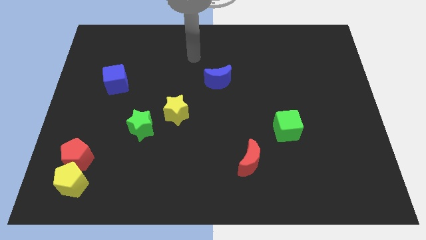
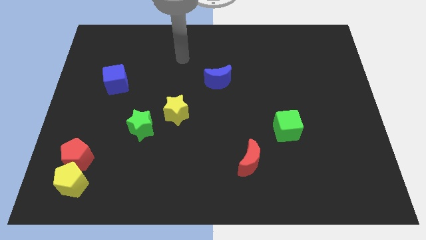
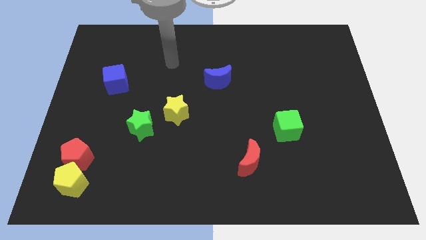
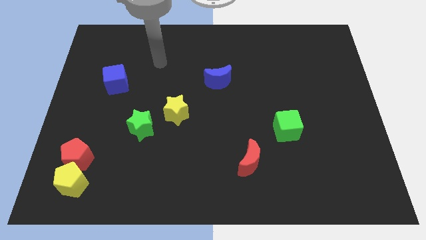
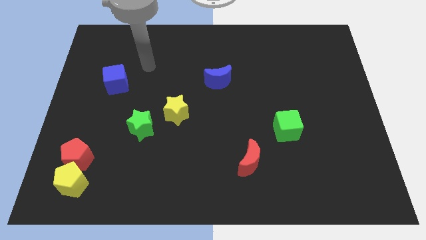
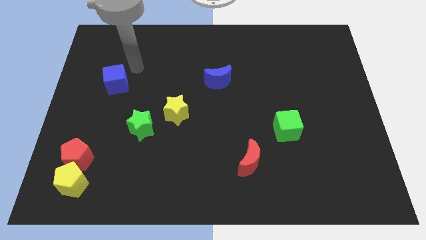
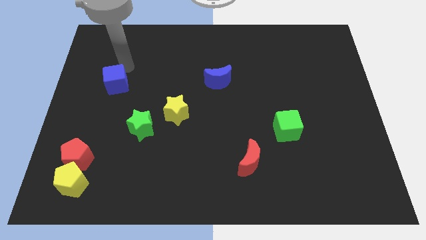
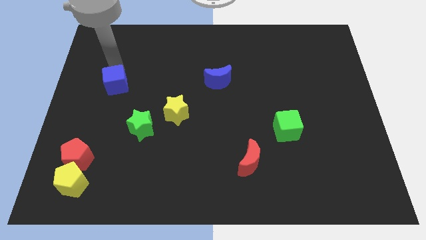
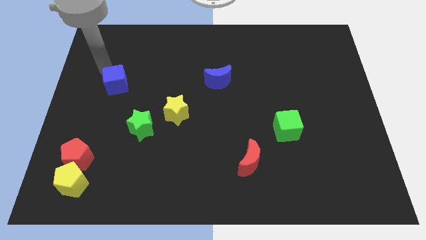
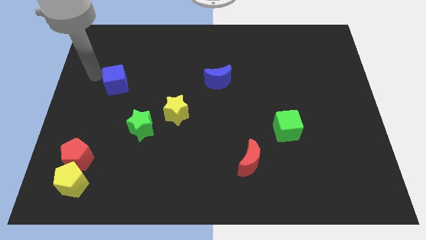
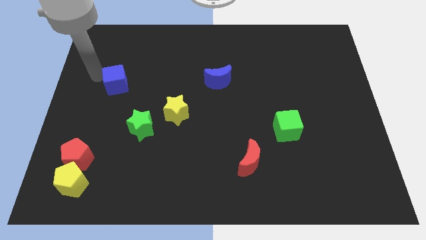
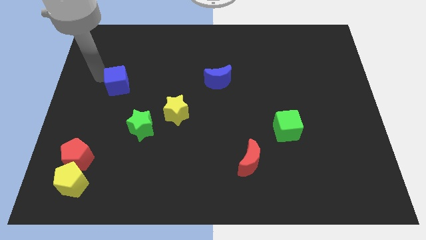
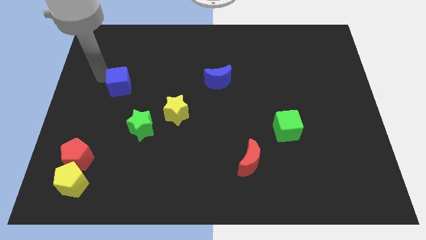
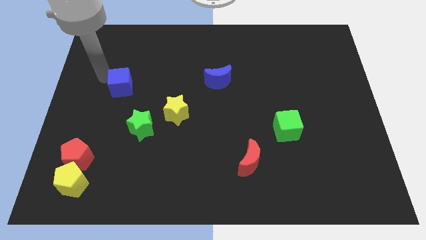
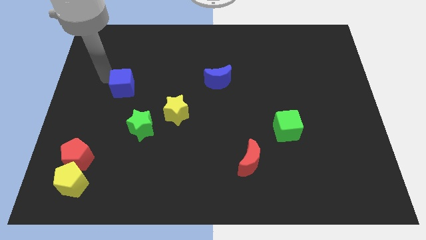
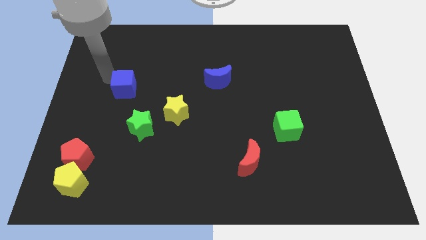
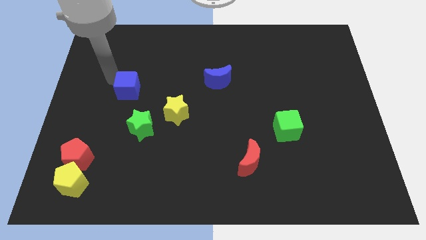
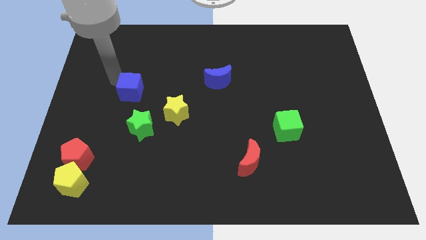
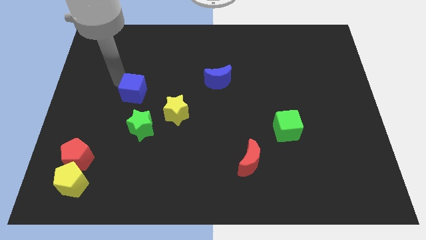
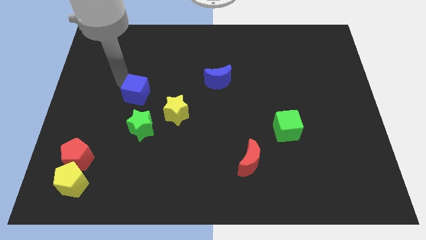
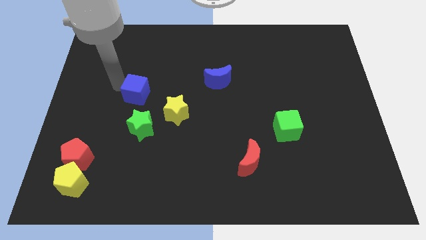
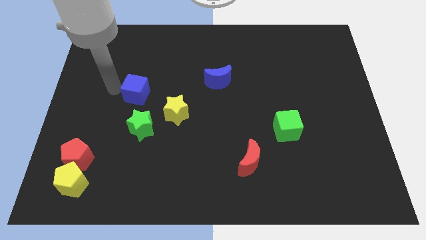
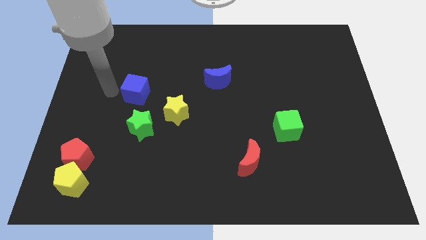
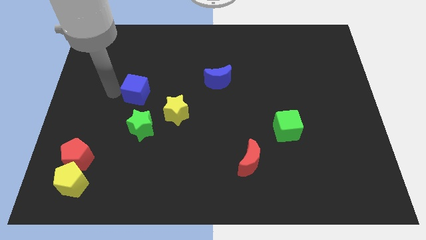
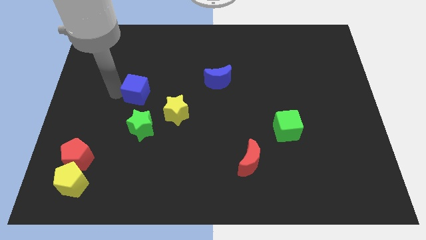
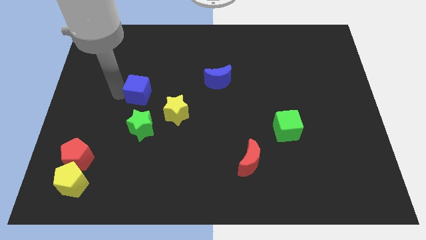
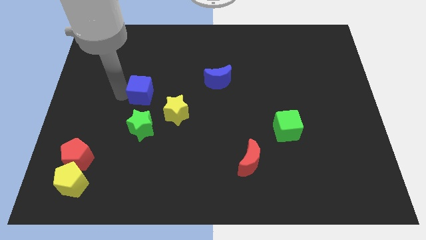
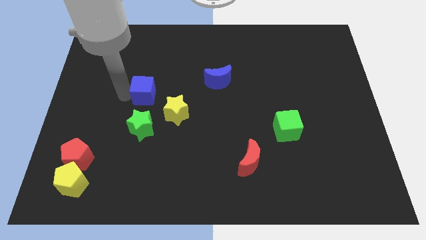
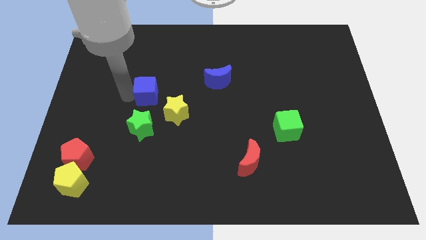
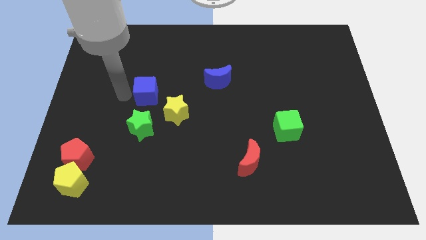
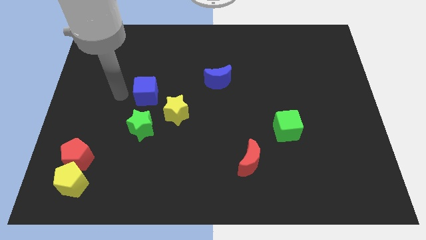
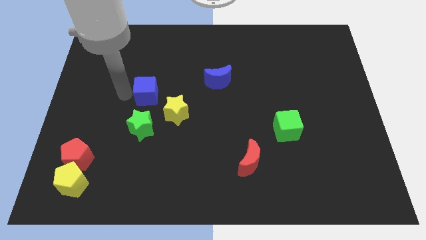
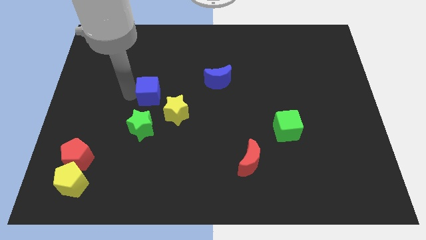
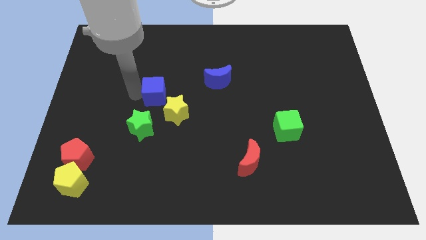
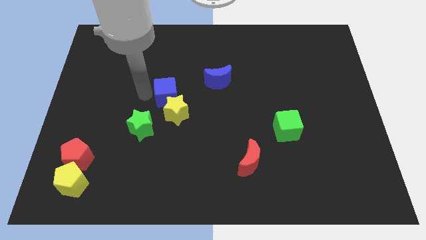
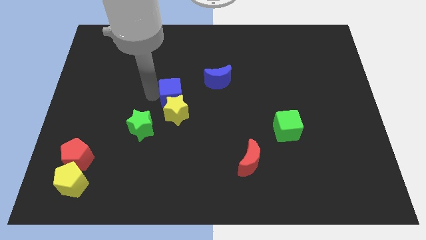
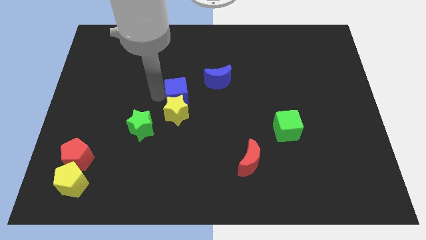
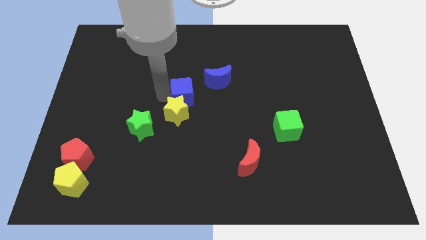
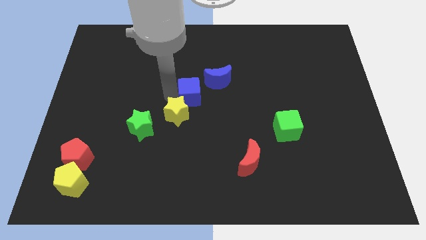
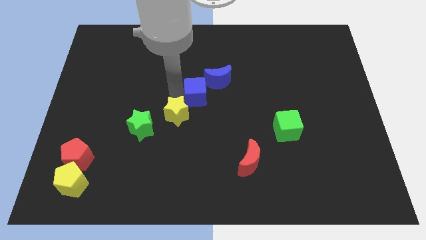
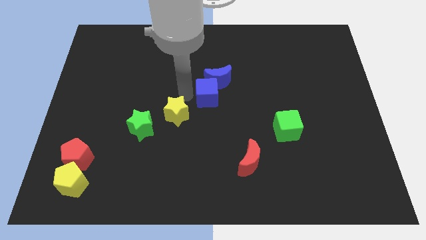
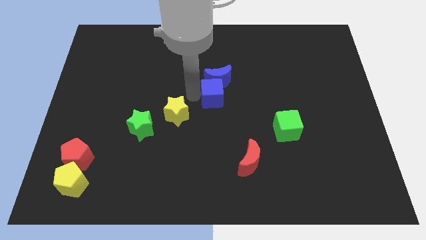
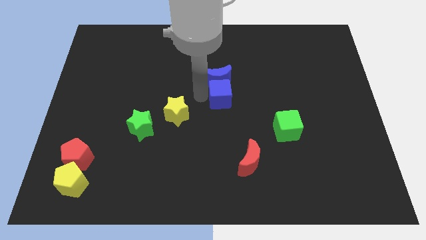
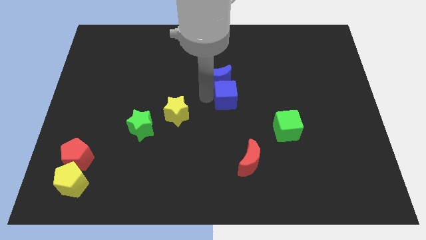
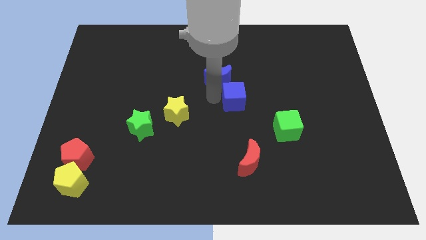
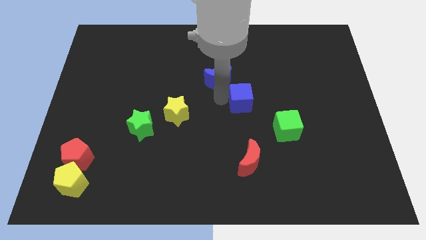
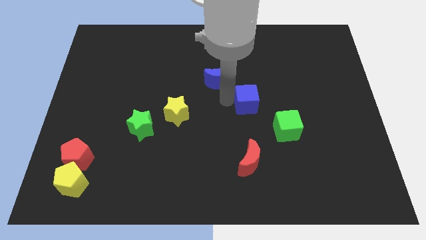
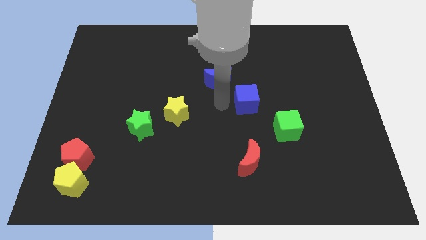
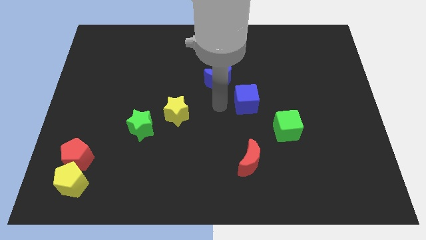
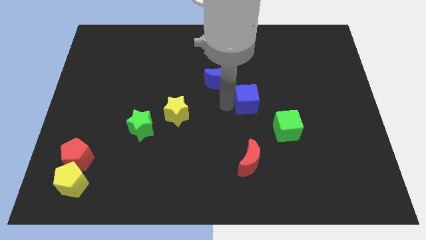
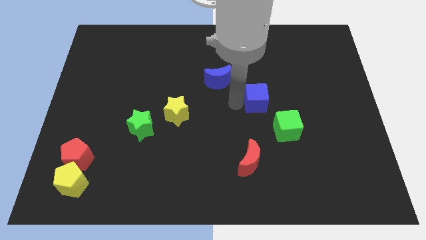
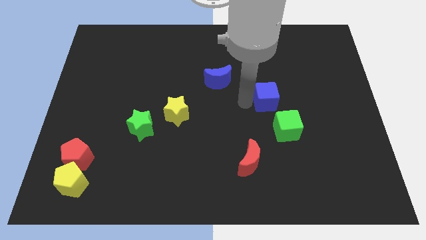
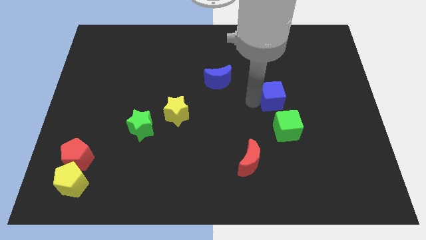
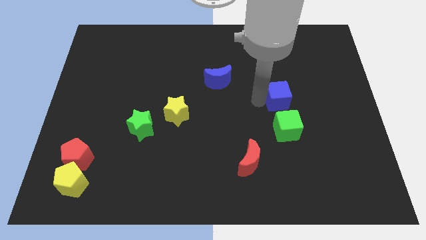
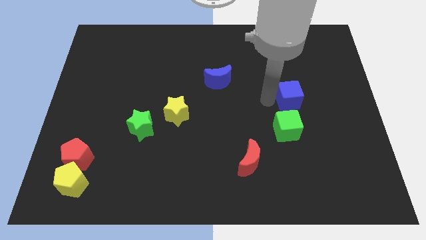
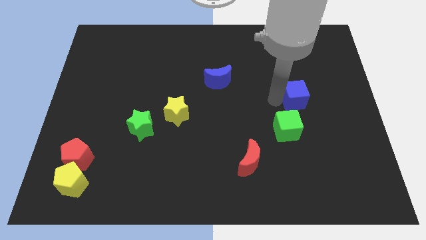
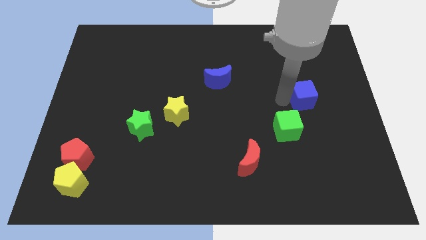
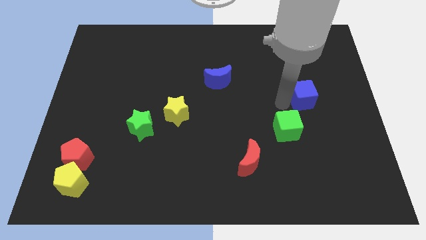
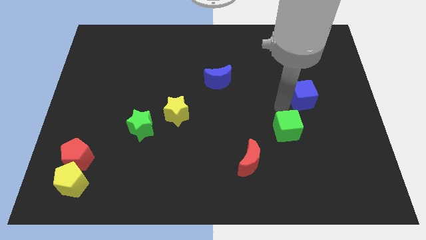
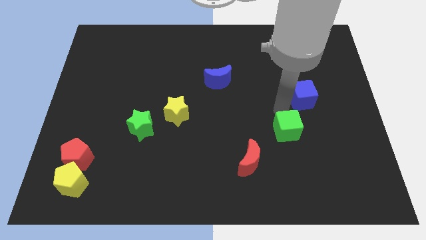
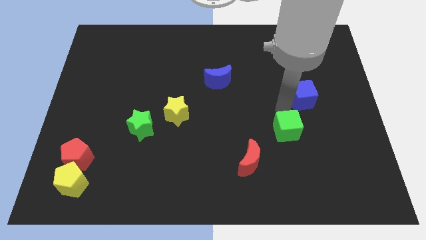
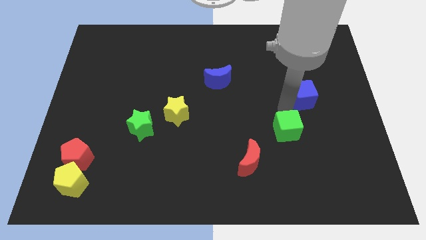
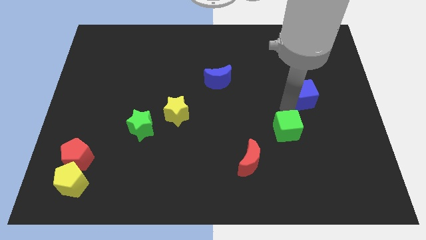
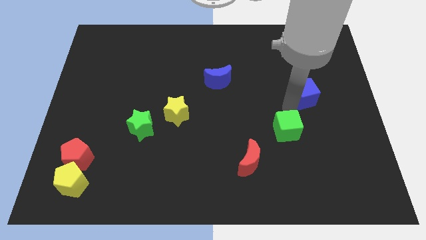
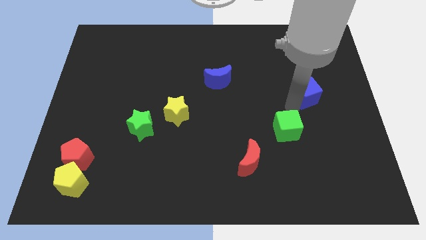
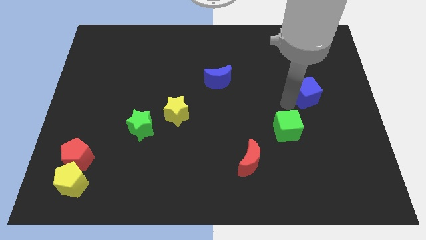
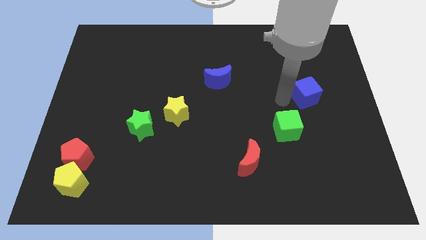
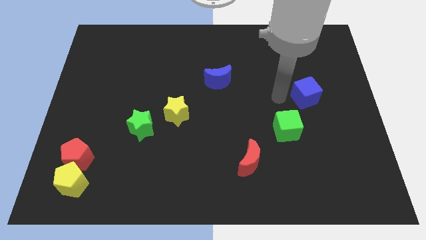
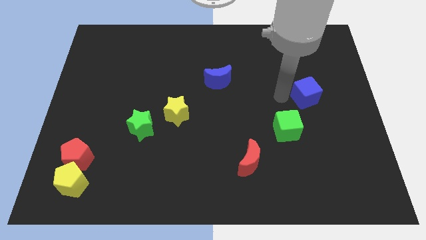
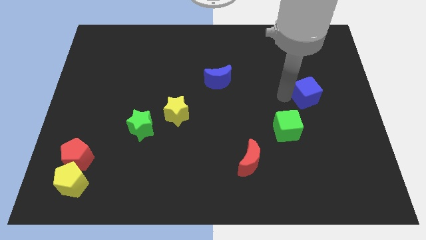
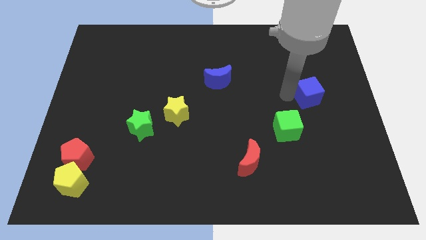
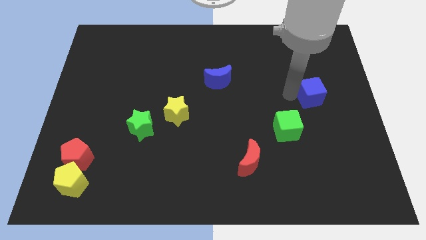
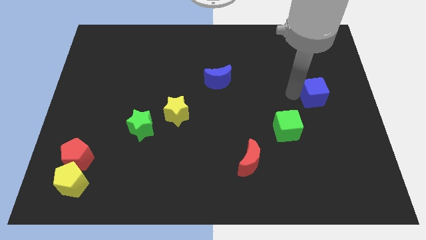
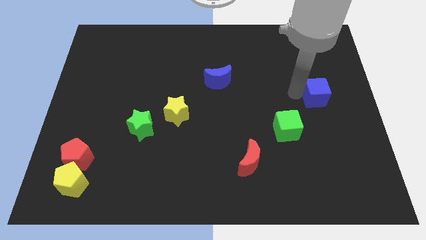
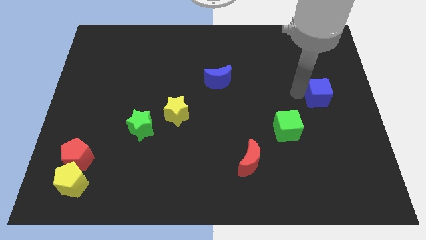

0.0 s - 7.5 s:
slide the blue cube to the right side of the board
